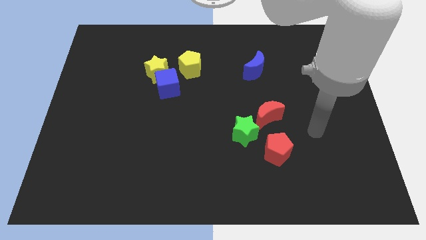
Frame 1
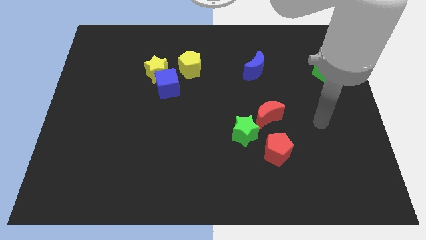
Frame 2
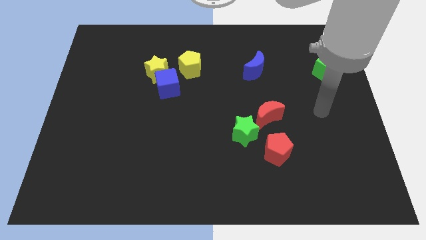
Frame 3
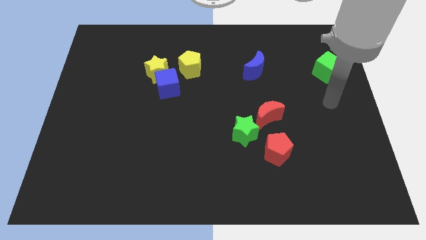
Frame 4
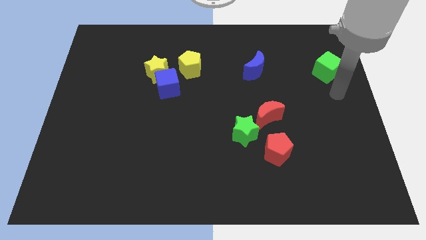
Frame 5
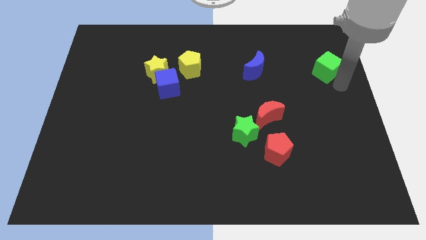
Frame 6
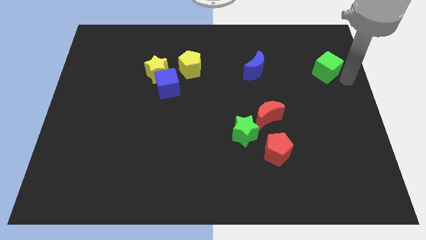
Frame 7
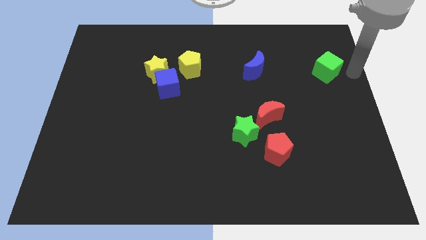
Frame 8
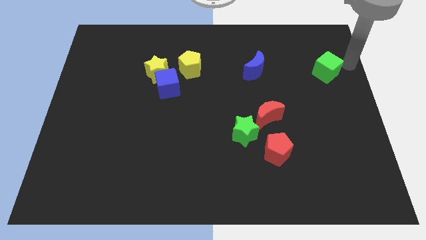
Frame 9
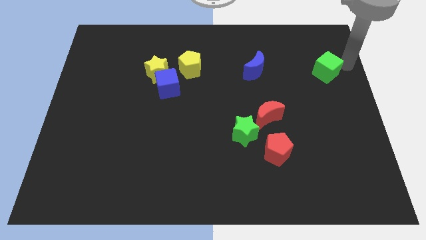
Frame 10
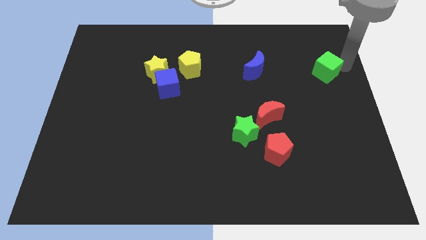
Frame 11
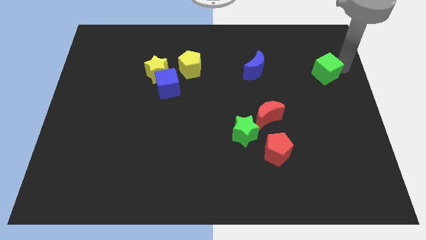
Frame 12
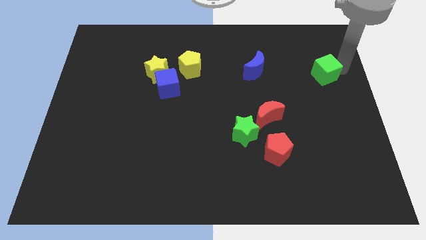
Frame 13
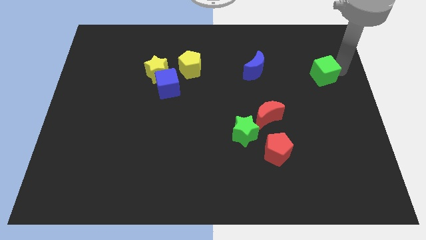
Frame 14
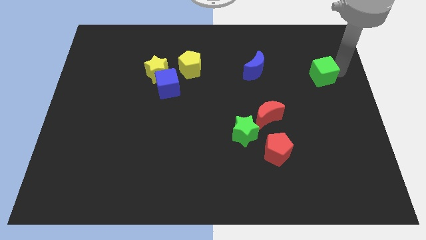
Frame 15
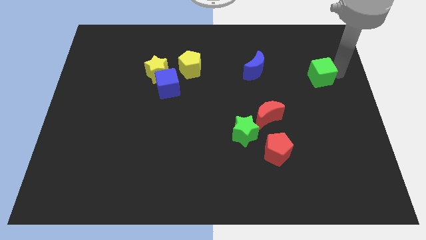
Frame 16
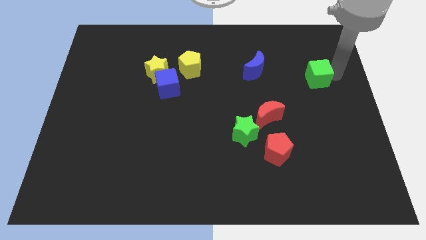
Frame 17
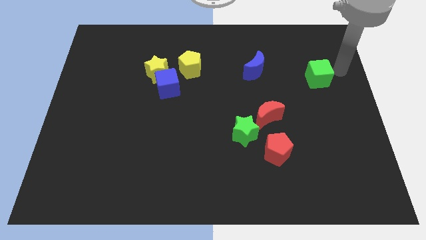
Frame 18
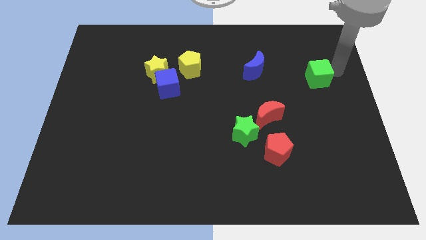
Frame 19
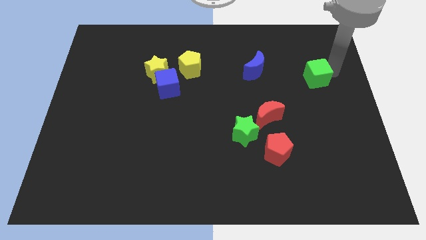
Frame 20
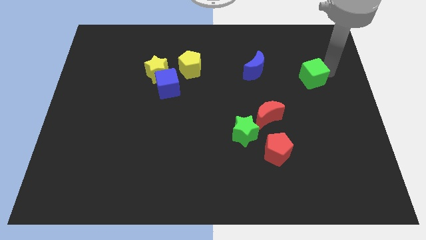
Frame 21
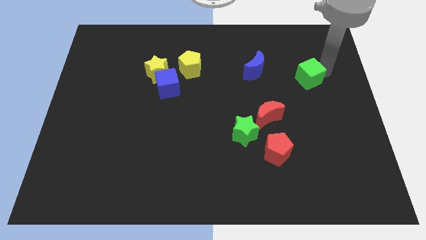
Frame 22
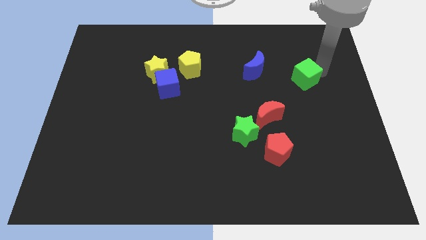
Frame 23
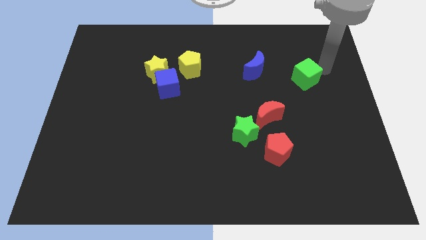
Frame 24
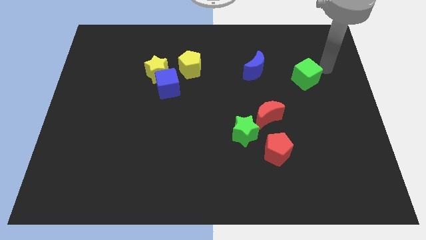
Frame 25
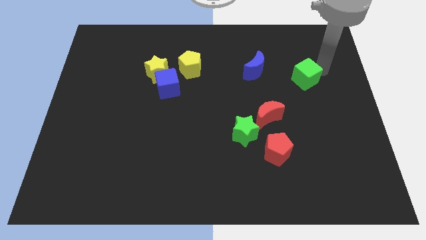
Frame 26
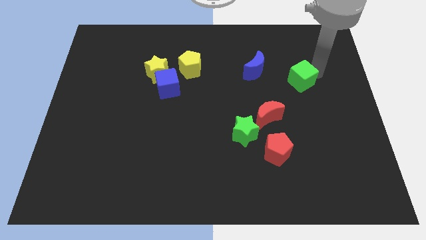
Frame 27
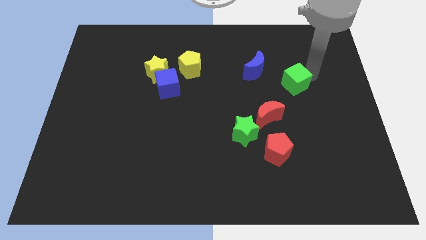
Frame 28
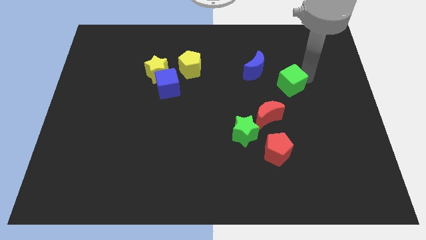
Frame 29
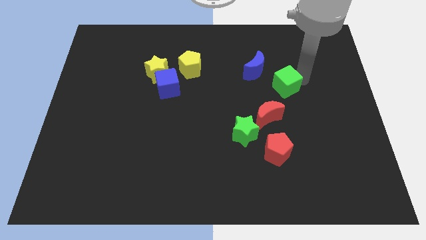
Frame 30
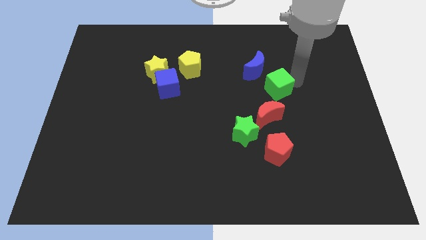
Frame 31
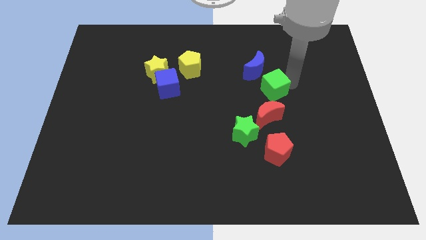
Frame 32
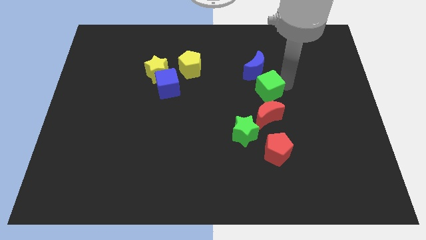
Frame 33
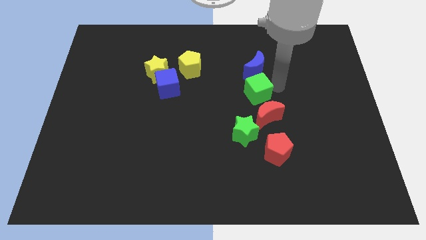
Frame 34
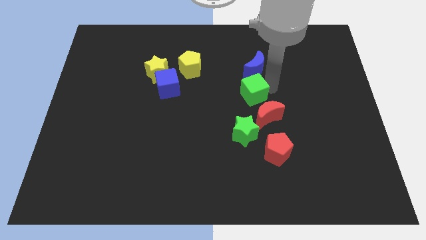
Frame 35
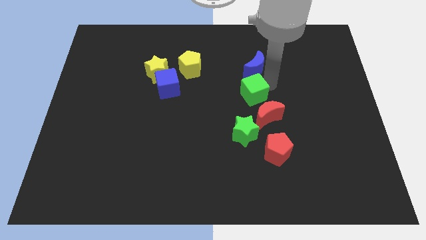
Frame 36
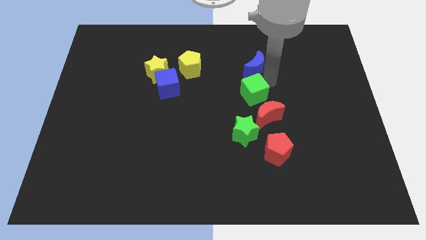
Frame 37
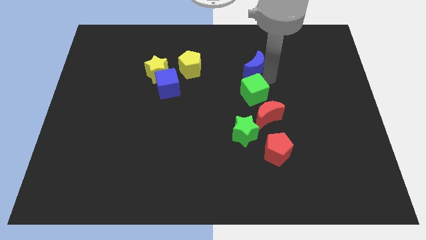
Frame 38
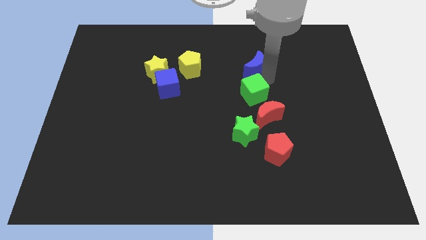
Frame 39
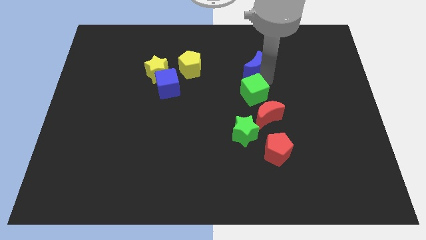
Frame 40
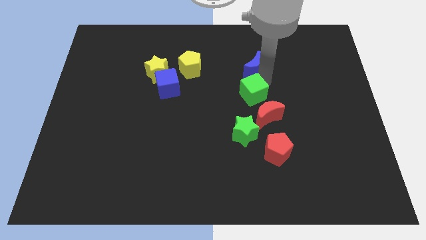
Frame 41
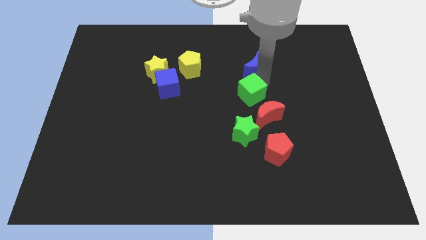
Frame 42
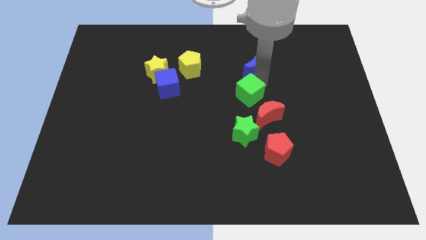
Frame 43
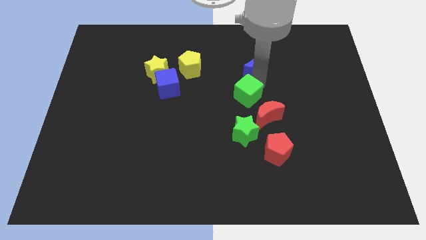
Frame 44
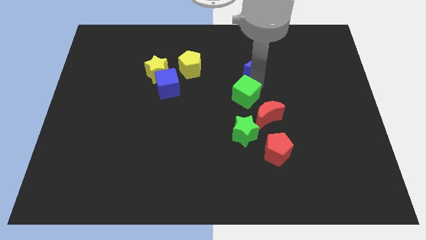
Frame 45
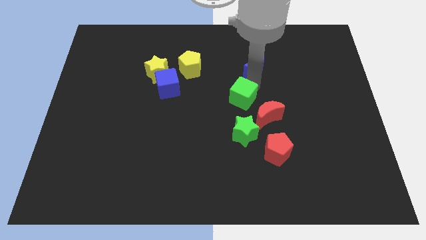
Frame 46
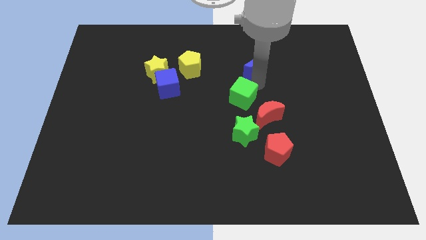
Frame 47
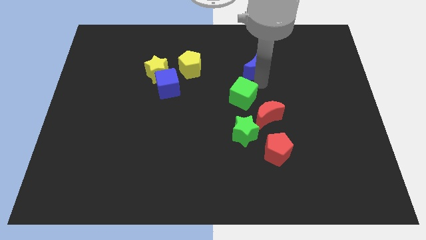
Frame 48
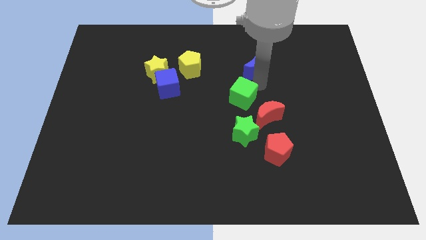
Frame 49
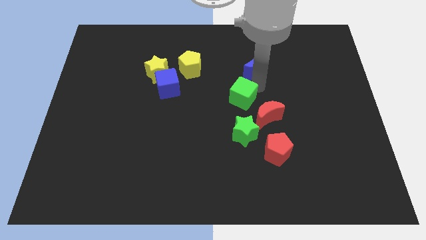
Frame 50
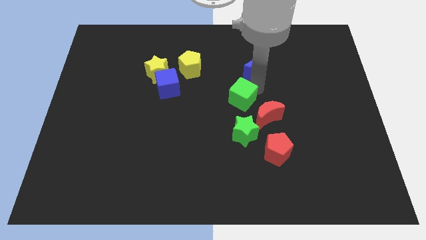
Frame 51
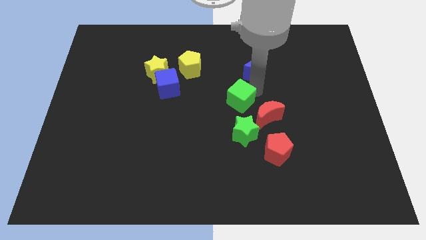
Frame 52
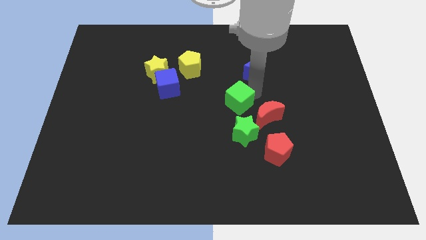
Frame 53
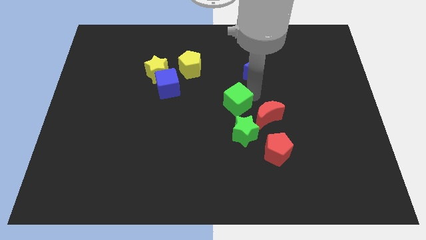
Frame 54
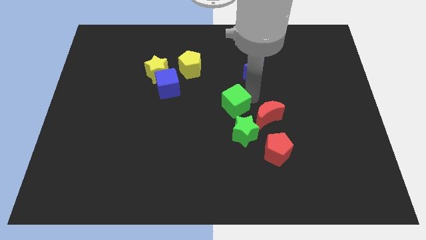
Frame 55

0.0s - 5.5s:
push the green cube to the top left of the green star

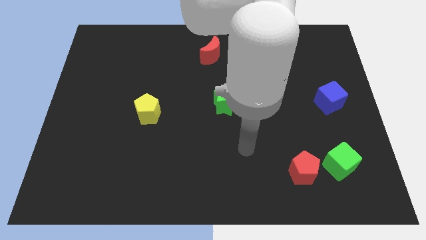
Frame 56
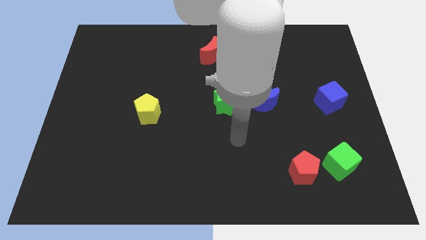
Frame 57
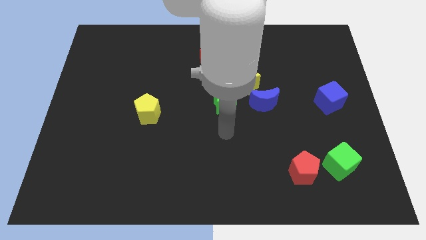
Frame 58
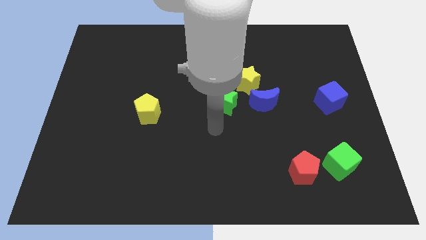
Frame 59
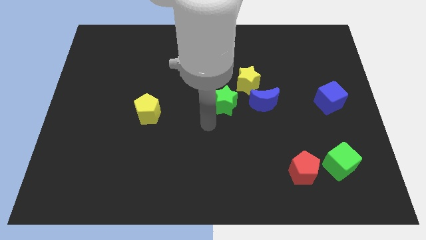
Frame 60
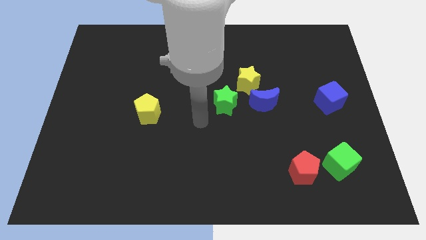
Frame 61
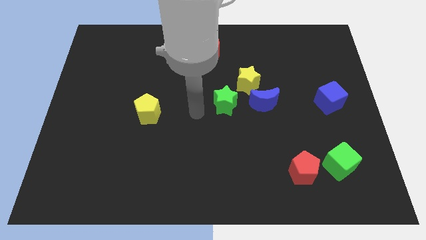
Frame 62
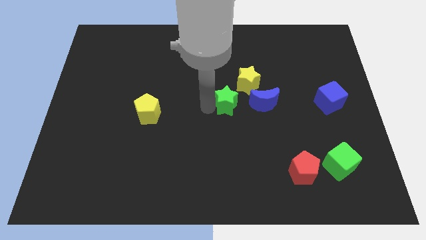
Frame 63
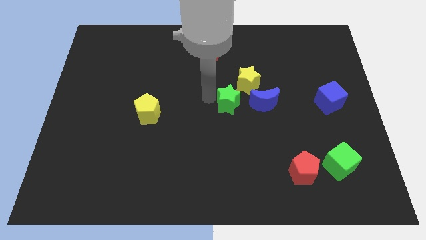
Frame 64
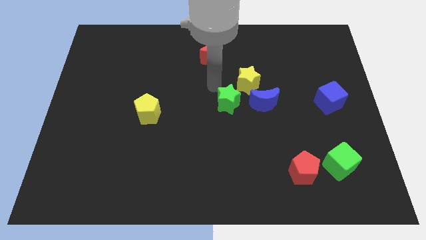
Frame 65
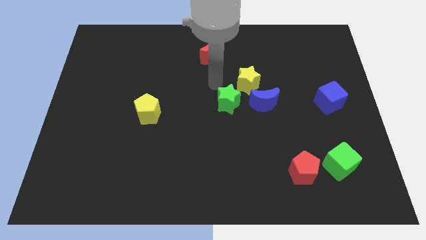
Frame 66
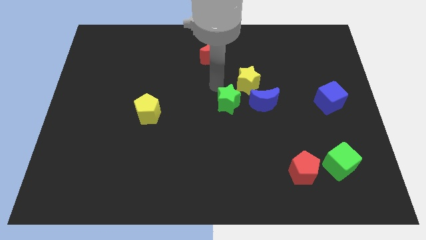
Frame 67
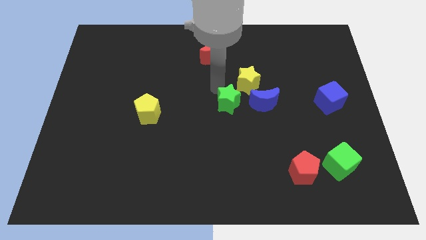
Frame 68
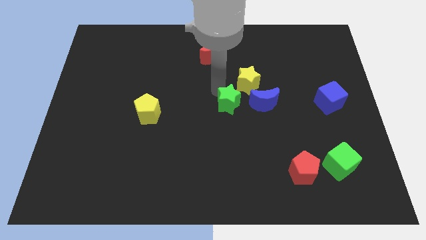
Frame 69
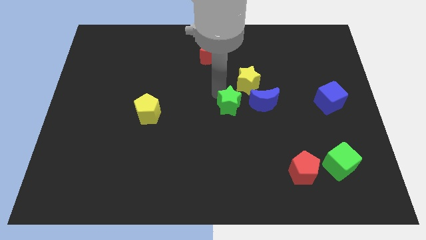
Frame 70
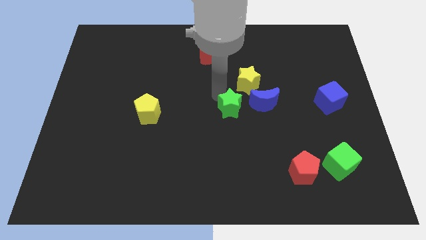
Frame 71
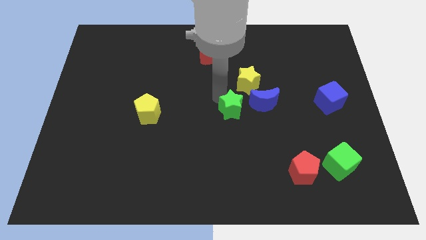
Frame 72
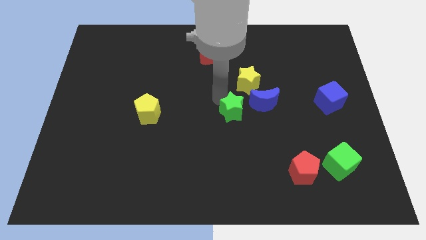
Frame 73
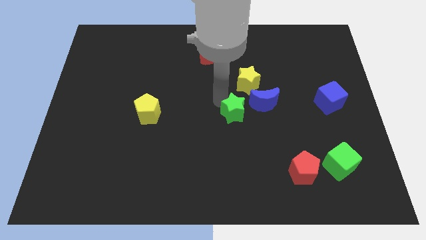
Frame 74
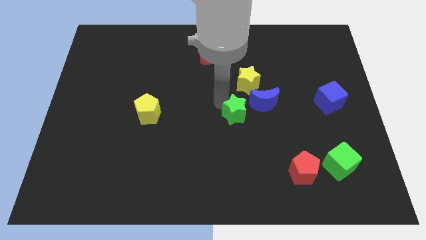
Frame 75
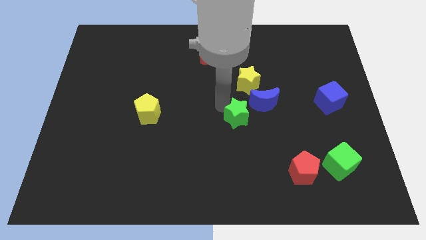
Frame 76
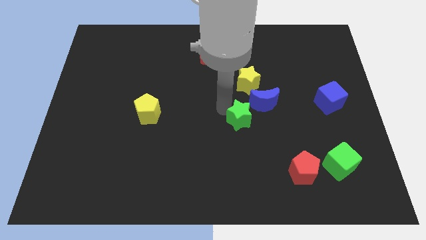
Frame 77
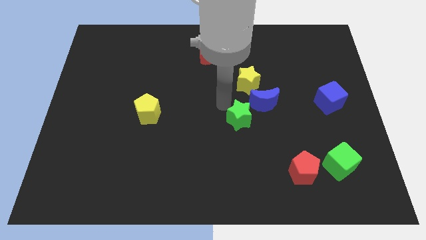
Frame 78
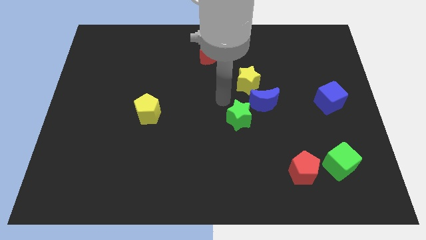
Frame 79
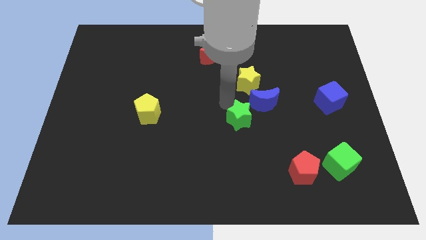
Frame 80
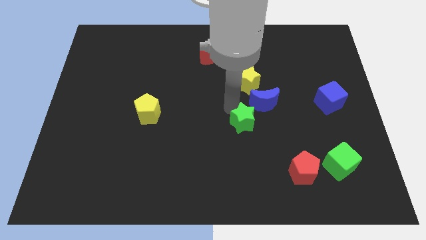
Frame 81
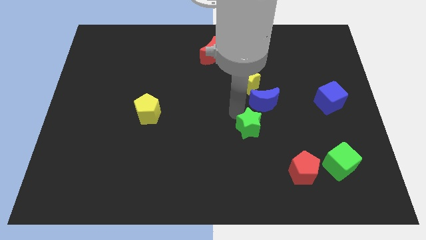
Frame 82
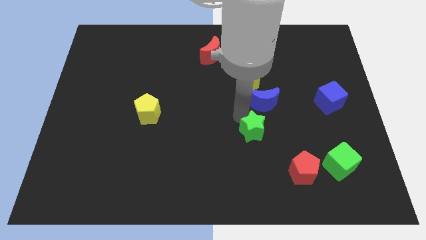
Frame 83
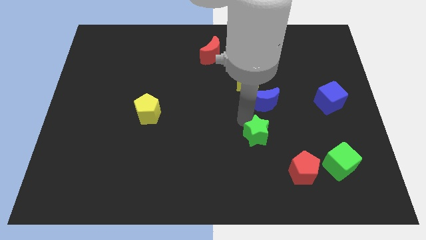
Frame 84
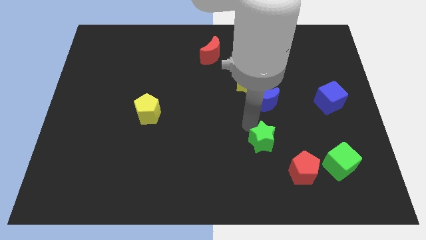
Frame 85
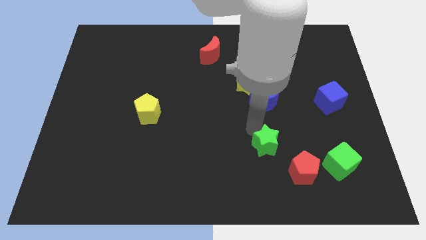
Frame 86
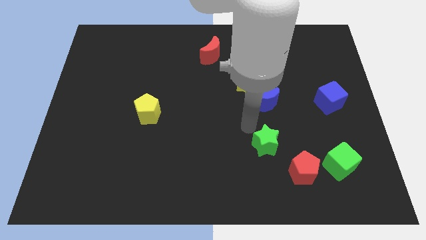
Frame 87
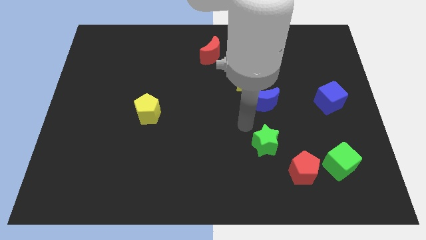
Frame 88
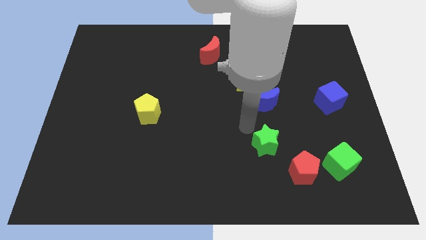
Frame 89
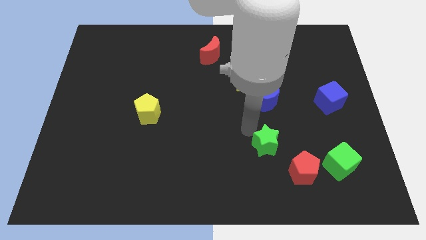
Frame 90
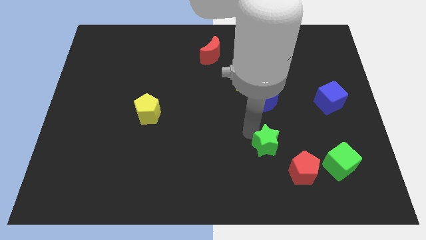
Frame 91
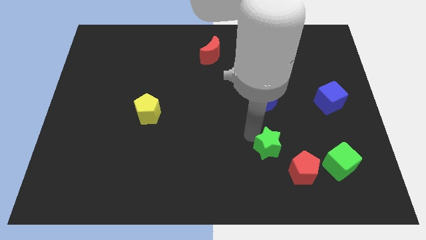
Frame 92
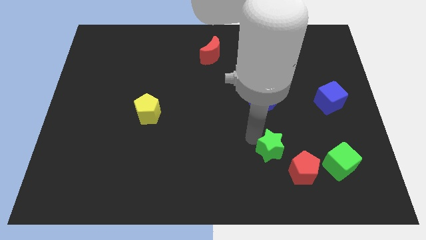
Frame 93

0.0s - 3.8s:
move the green star left of the green cube
